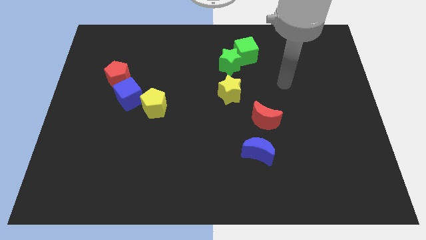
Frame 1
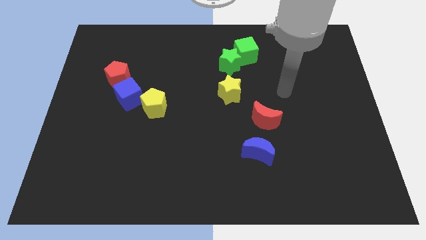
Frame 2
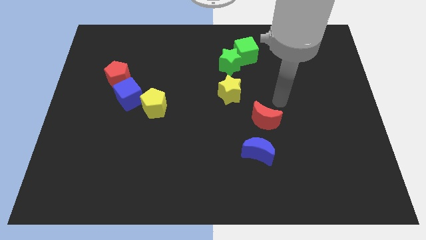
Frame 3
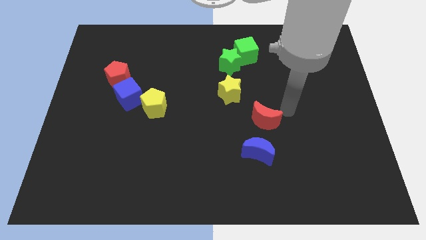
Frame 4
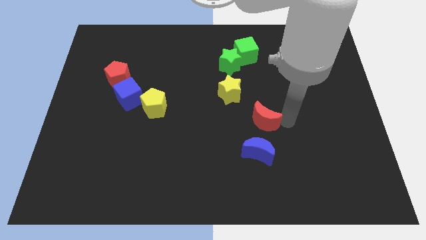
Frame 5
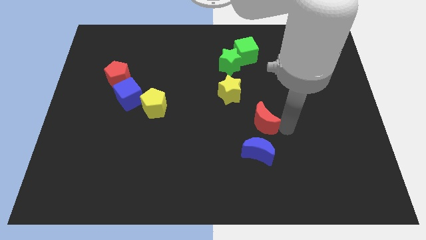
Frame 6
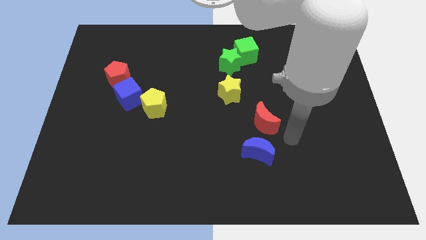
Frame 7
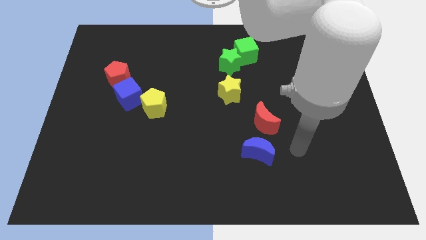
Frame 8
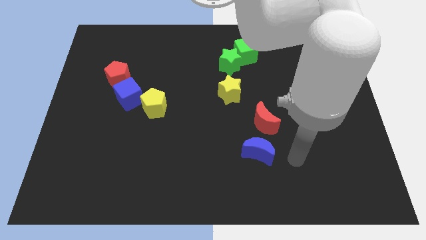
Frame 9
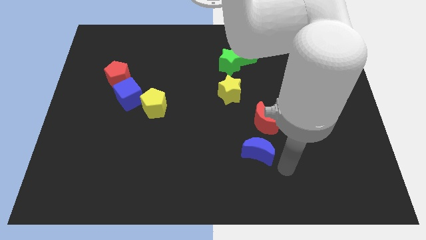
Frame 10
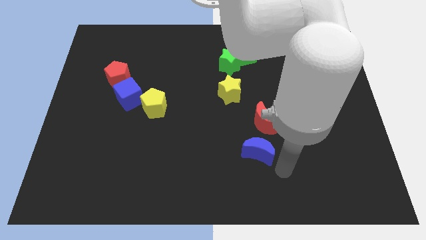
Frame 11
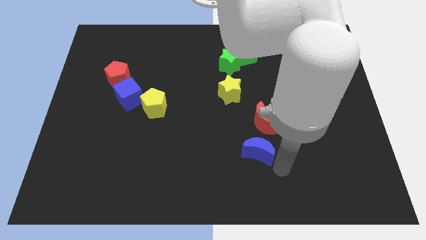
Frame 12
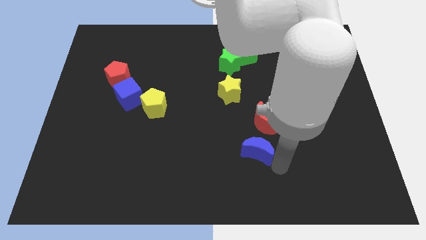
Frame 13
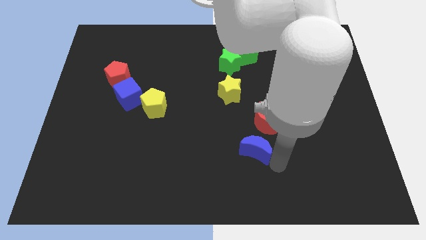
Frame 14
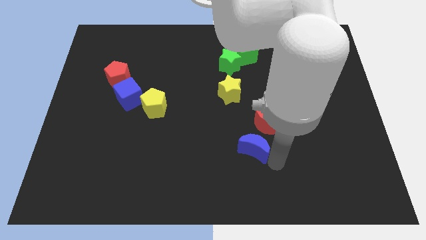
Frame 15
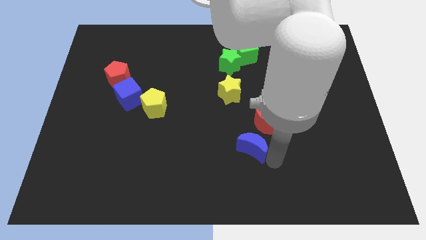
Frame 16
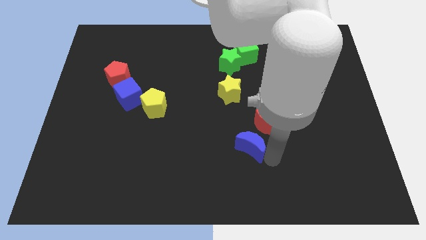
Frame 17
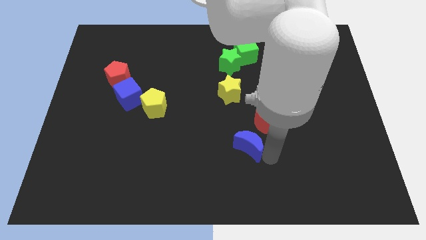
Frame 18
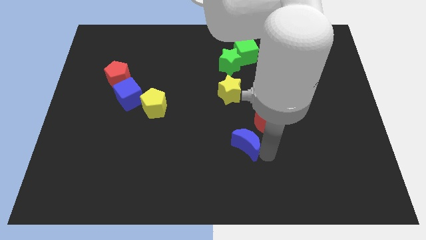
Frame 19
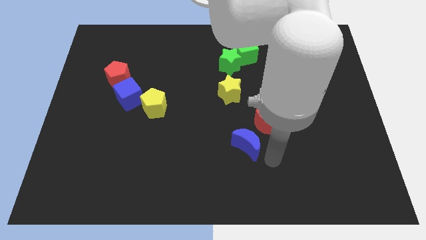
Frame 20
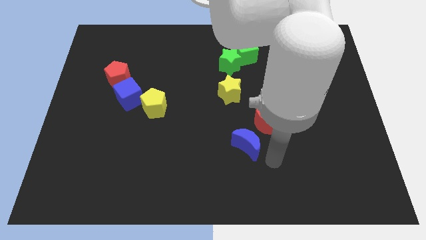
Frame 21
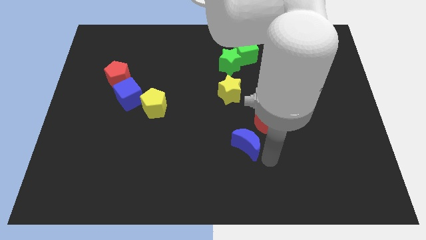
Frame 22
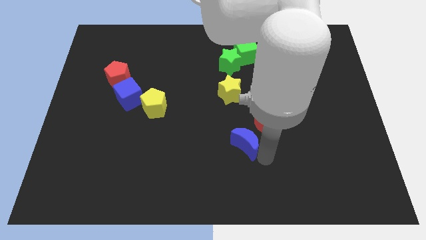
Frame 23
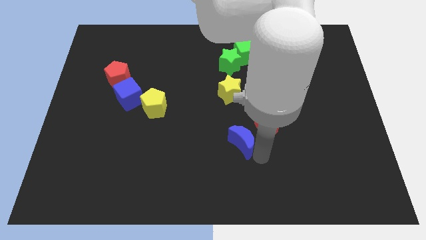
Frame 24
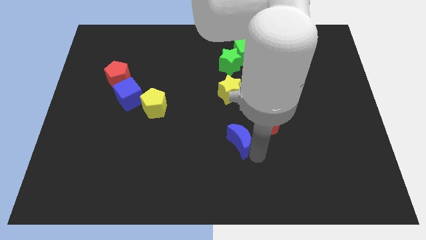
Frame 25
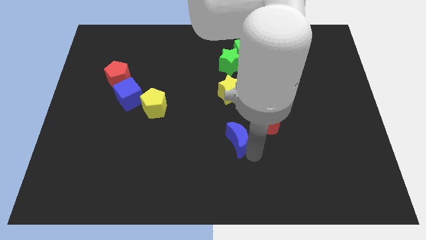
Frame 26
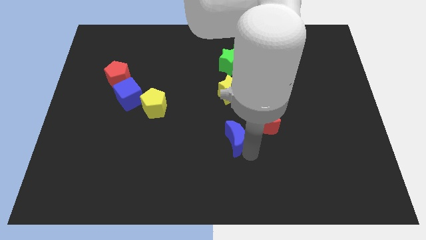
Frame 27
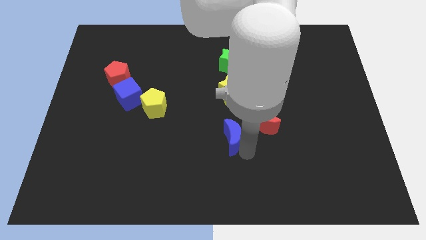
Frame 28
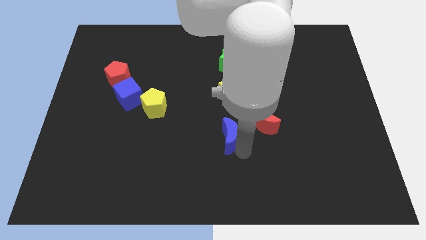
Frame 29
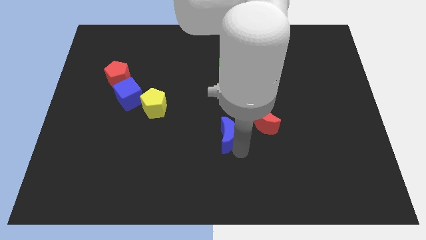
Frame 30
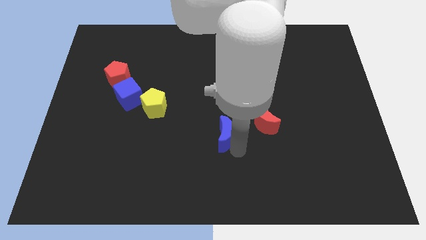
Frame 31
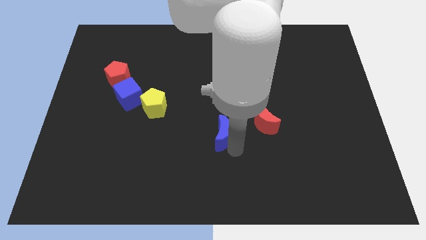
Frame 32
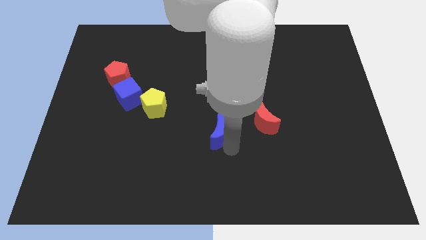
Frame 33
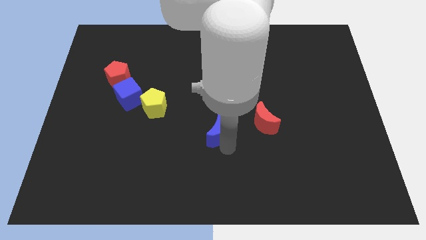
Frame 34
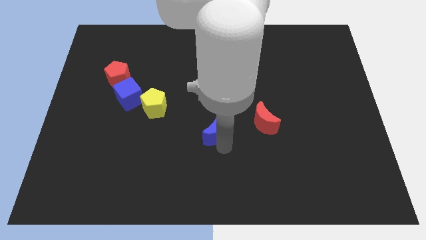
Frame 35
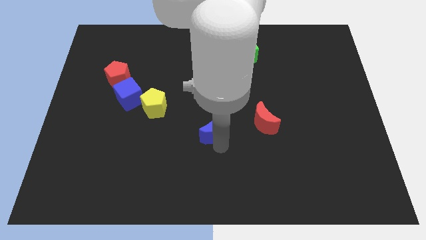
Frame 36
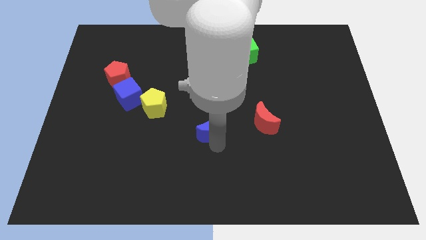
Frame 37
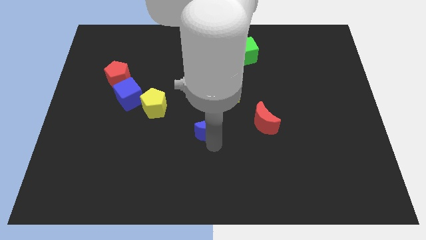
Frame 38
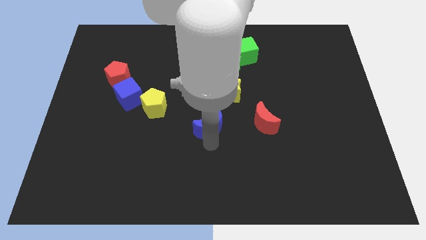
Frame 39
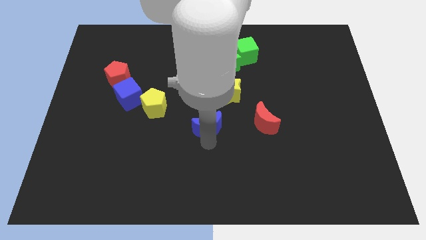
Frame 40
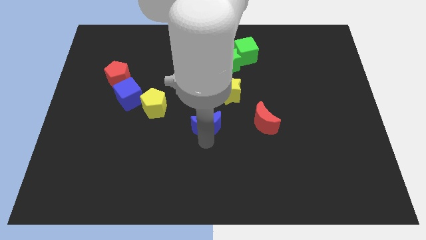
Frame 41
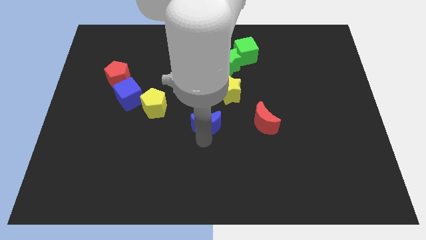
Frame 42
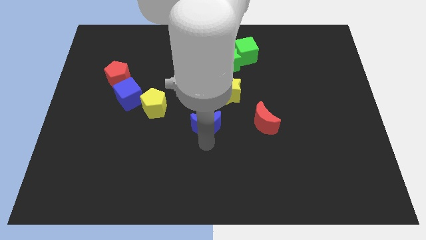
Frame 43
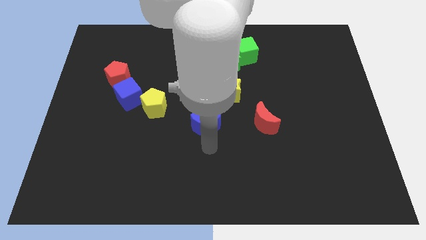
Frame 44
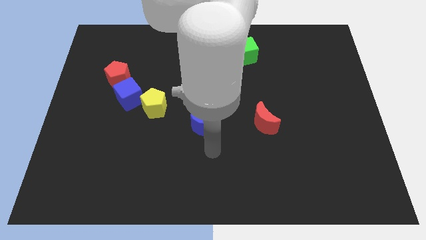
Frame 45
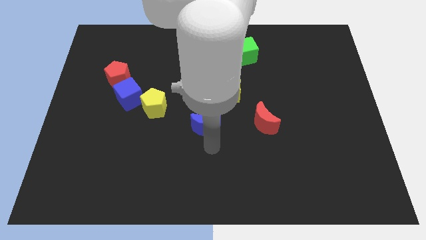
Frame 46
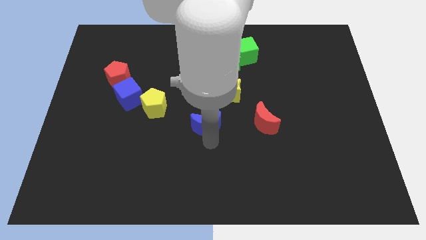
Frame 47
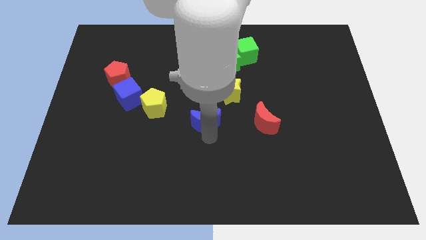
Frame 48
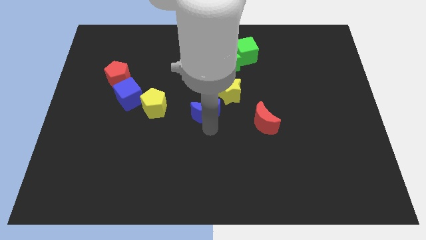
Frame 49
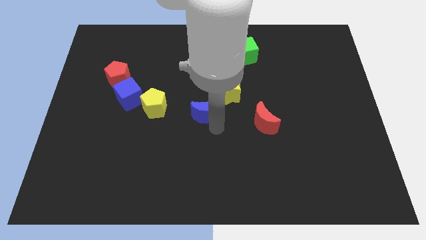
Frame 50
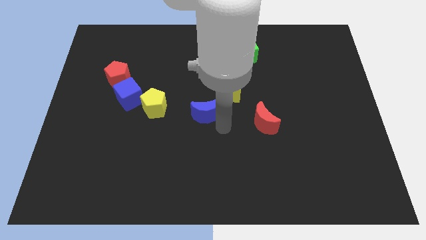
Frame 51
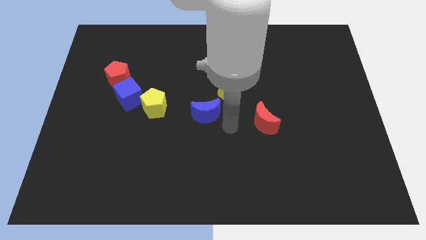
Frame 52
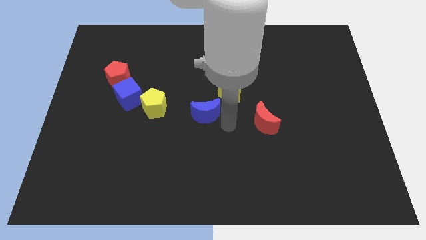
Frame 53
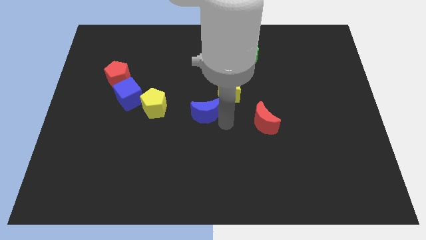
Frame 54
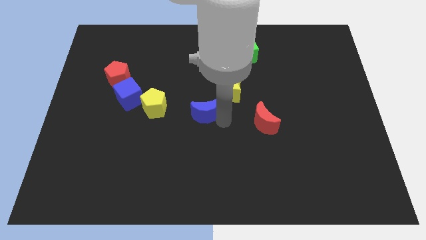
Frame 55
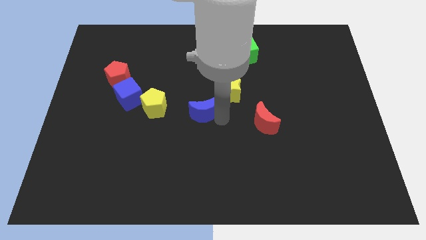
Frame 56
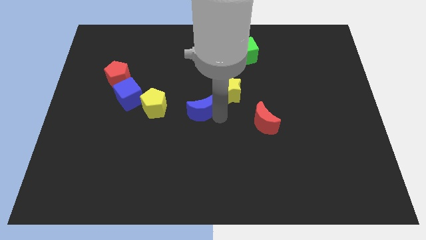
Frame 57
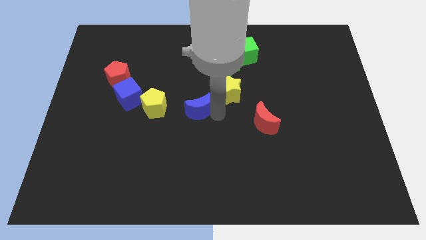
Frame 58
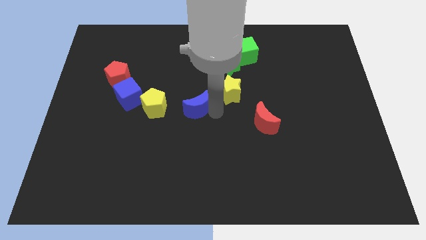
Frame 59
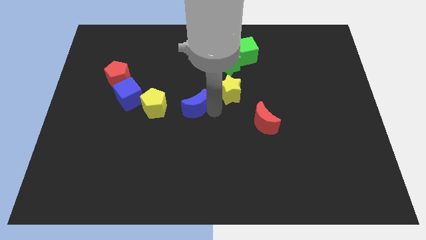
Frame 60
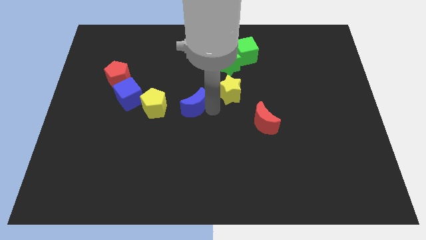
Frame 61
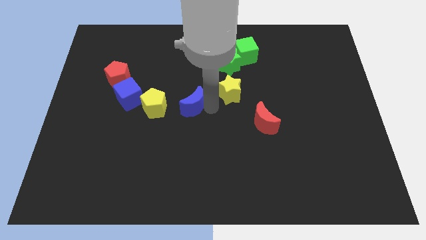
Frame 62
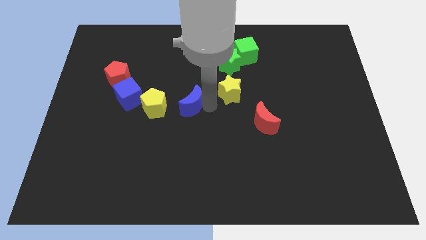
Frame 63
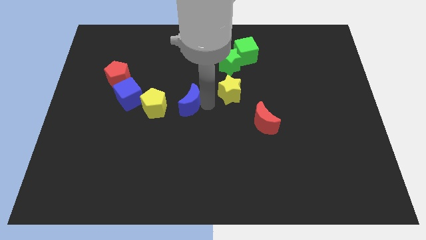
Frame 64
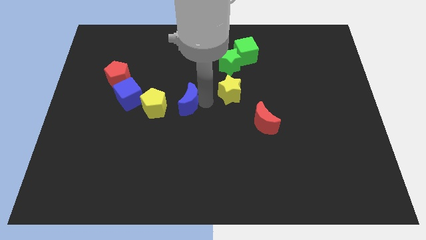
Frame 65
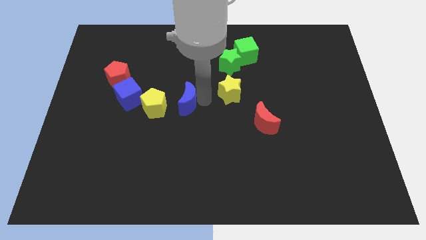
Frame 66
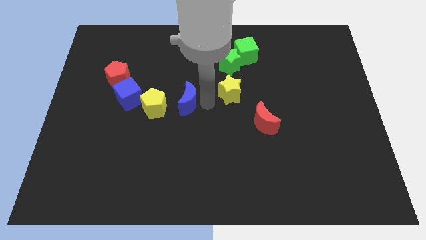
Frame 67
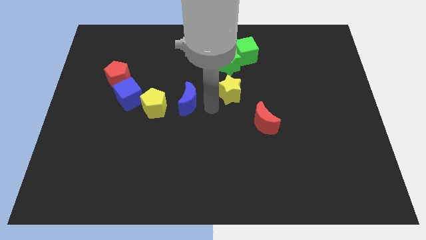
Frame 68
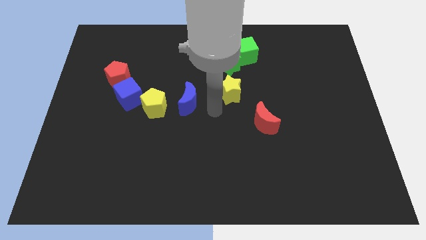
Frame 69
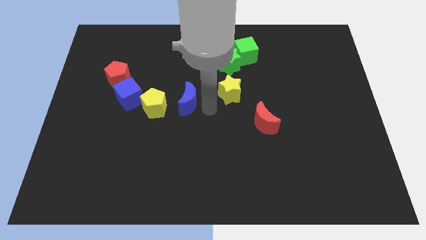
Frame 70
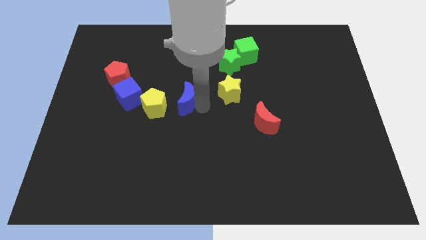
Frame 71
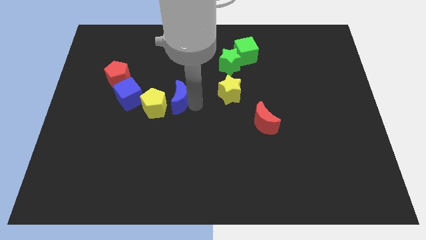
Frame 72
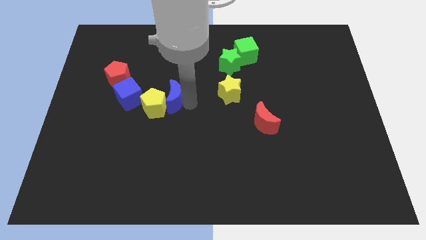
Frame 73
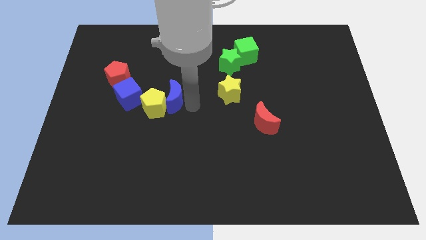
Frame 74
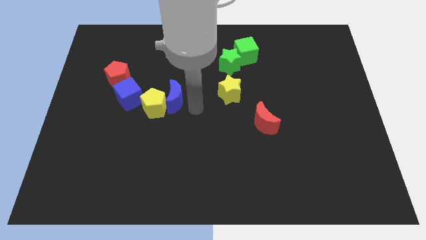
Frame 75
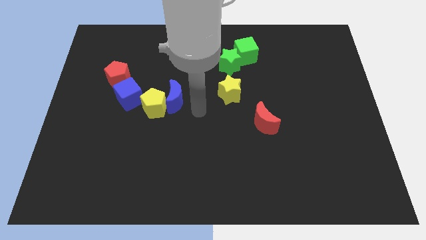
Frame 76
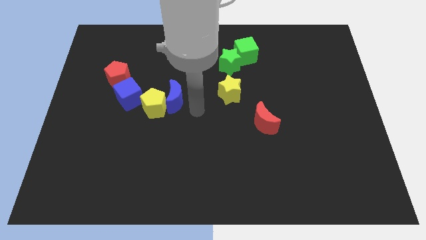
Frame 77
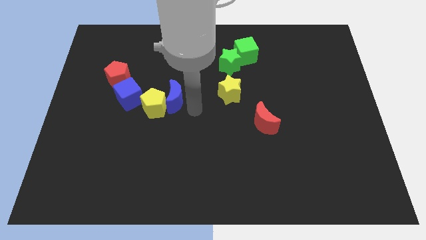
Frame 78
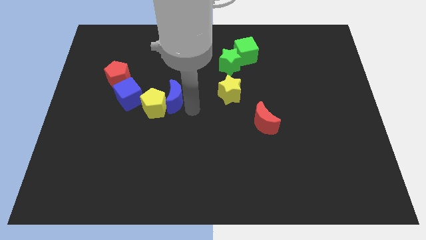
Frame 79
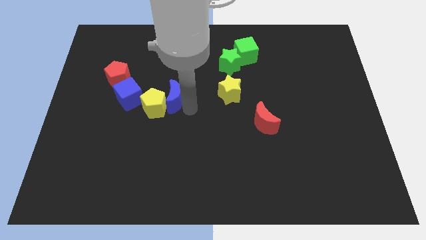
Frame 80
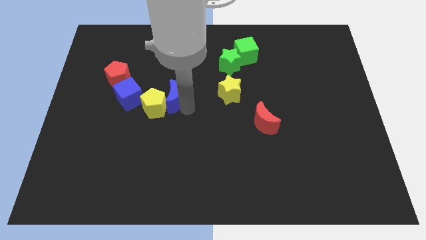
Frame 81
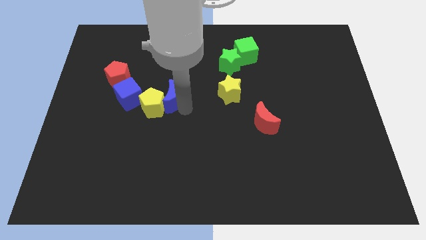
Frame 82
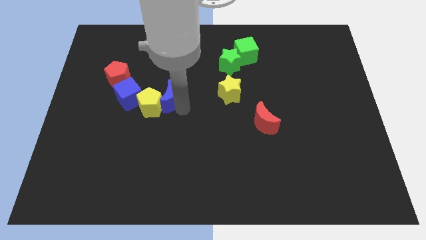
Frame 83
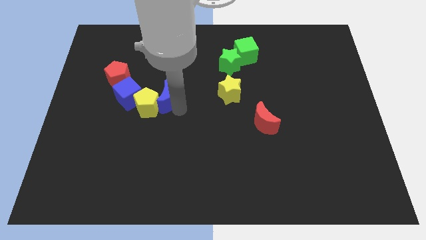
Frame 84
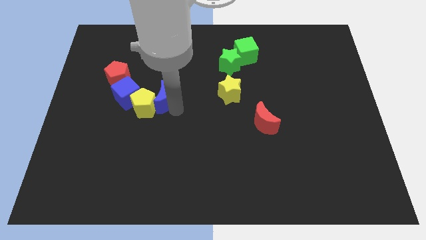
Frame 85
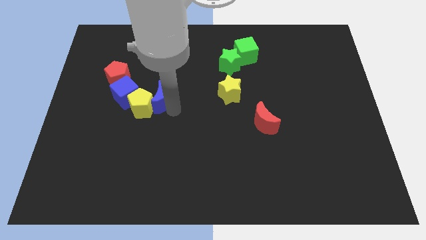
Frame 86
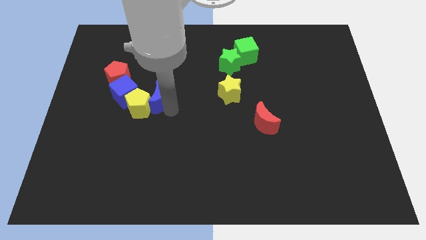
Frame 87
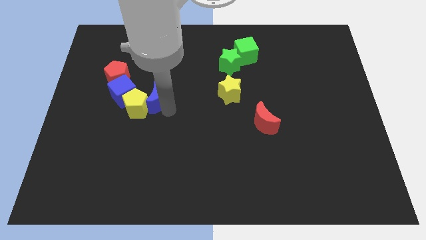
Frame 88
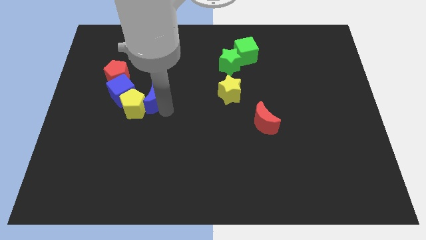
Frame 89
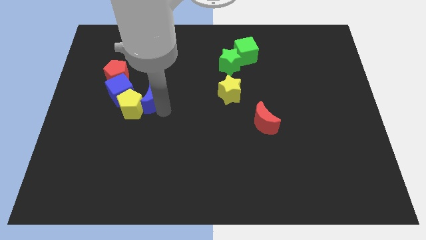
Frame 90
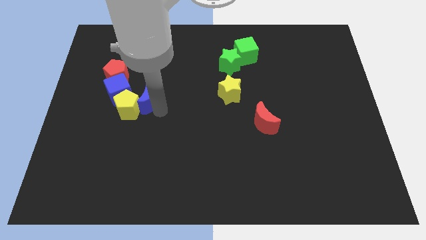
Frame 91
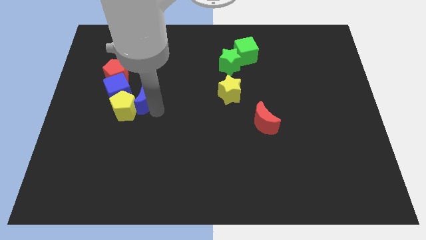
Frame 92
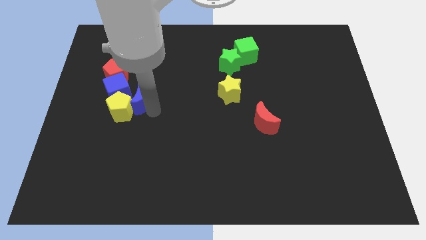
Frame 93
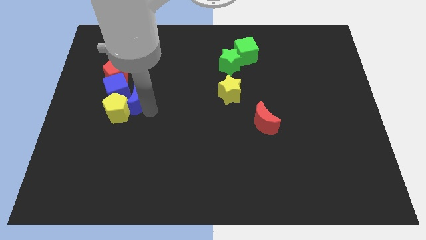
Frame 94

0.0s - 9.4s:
slide the blue moon next to the blue cube
